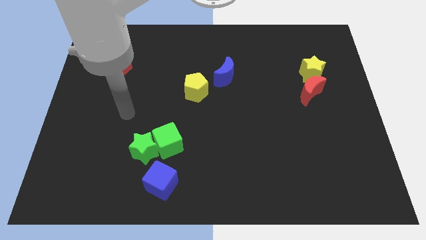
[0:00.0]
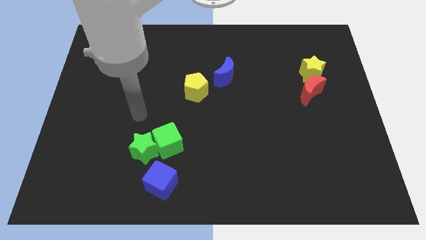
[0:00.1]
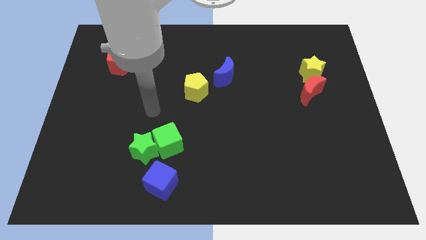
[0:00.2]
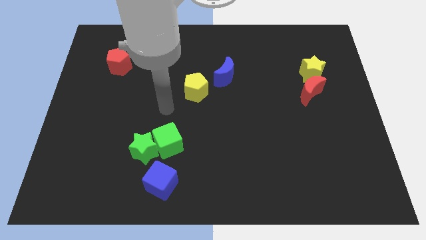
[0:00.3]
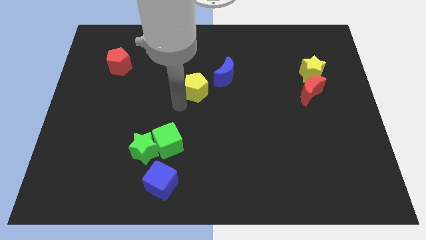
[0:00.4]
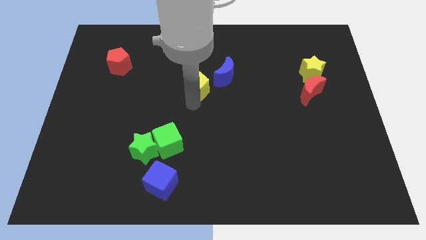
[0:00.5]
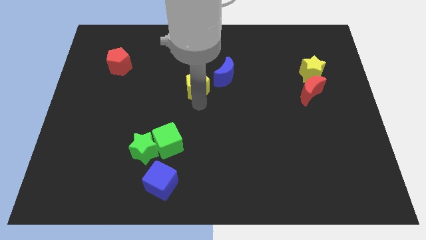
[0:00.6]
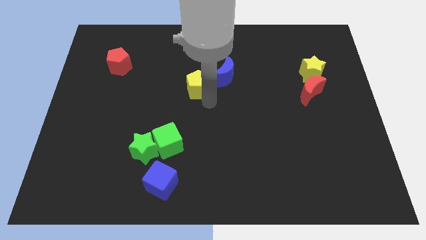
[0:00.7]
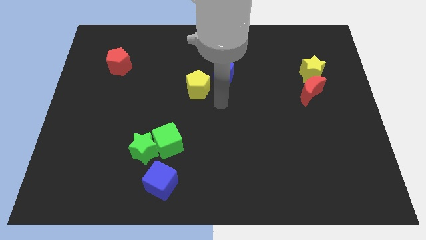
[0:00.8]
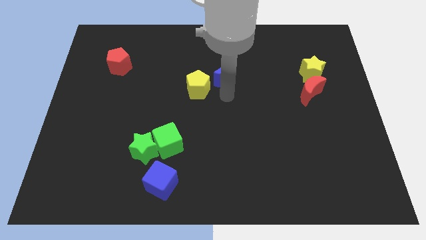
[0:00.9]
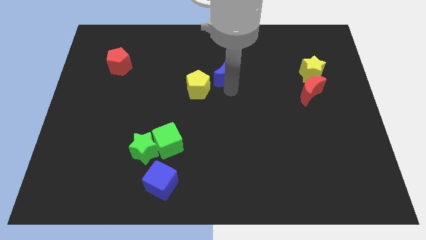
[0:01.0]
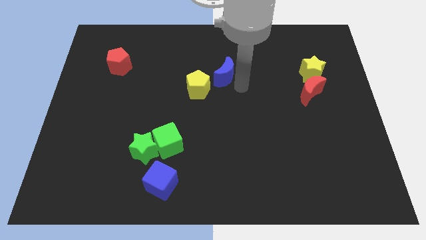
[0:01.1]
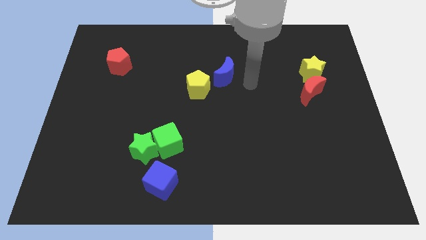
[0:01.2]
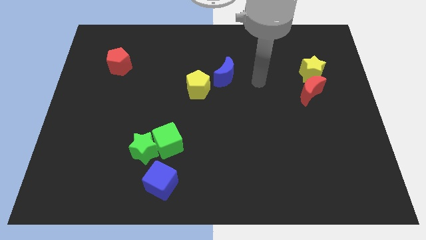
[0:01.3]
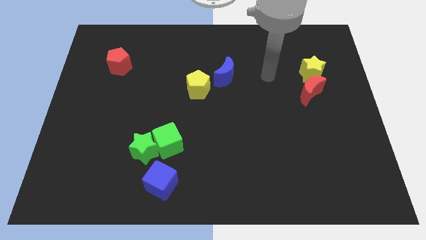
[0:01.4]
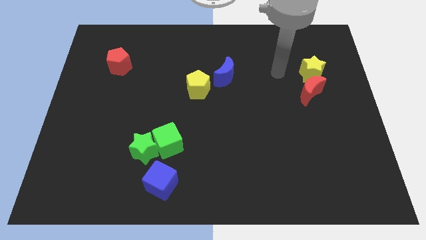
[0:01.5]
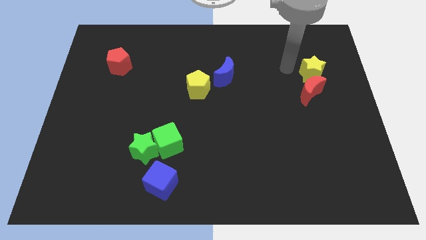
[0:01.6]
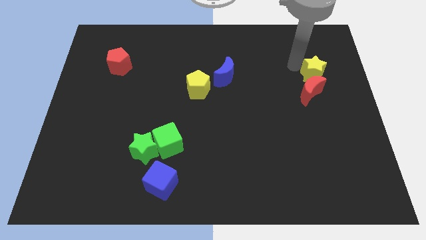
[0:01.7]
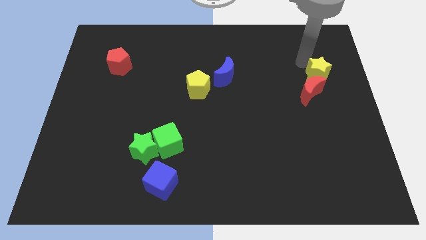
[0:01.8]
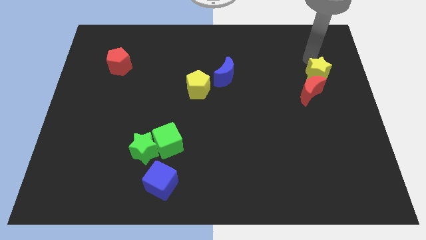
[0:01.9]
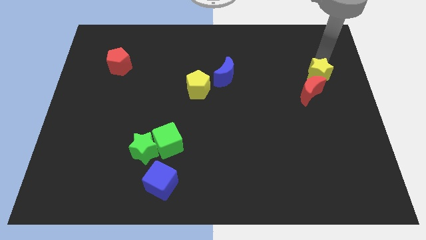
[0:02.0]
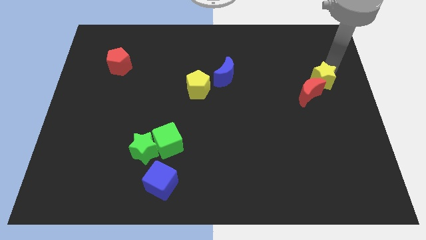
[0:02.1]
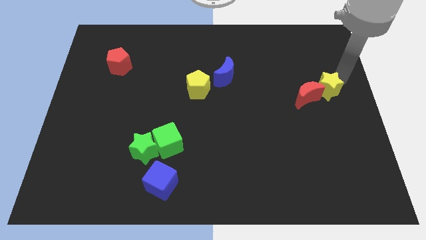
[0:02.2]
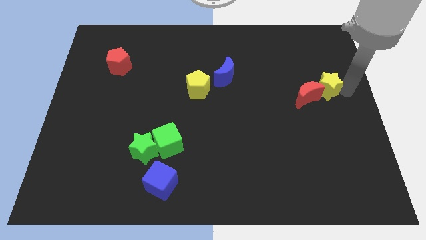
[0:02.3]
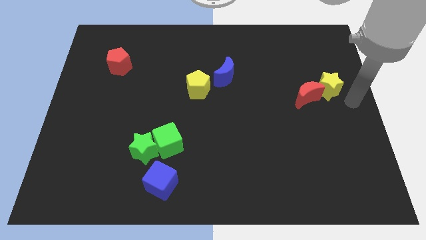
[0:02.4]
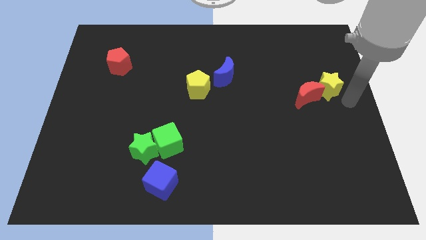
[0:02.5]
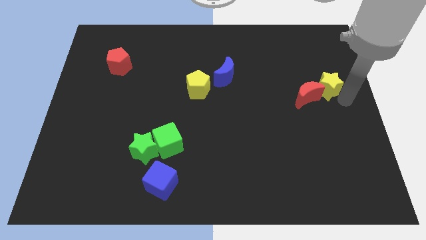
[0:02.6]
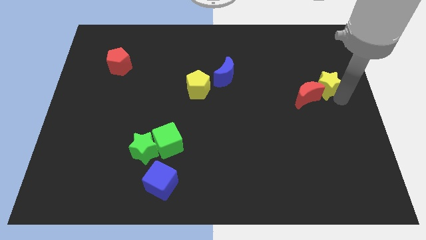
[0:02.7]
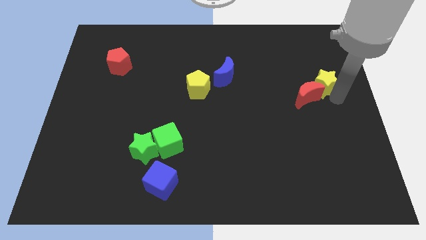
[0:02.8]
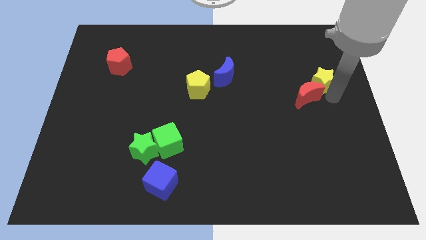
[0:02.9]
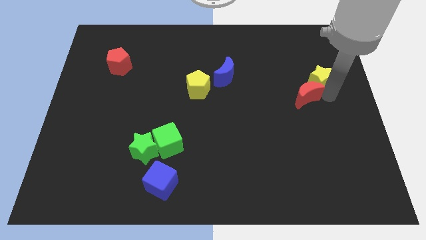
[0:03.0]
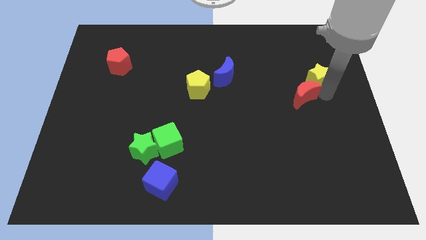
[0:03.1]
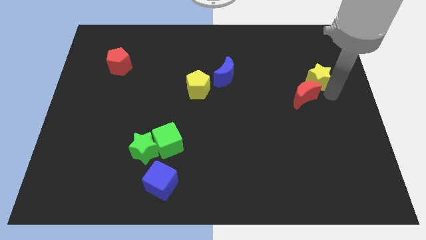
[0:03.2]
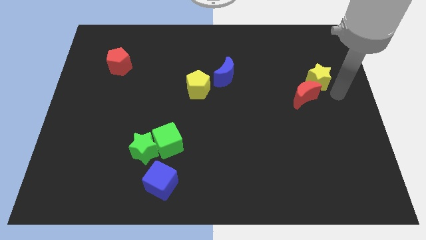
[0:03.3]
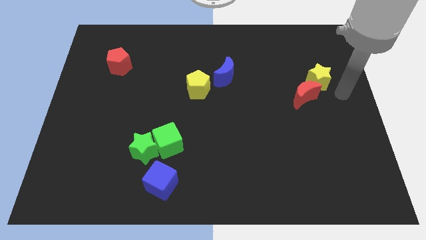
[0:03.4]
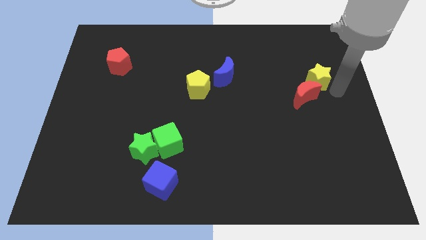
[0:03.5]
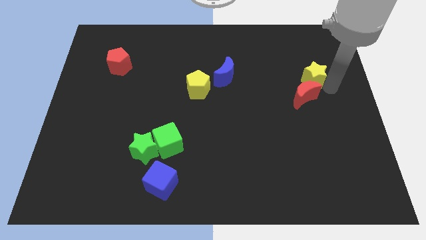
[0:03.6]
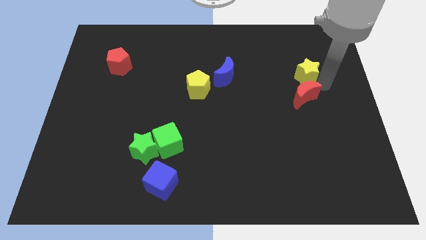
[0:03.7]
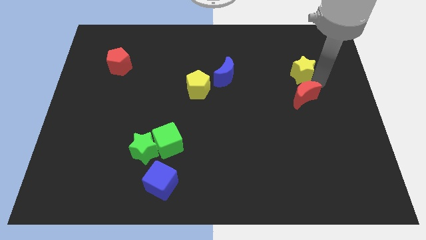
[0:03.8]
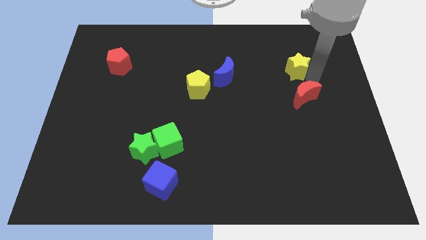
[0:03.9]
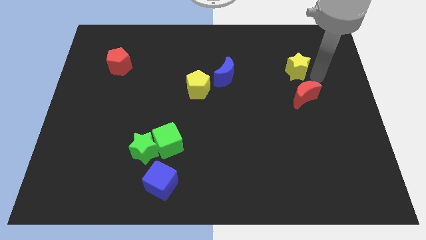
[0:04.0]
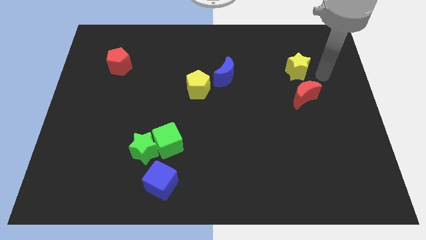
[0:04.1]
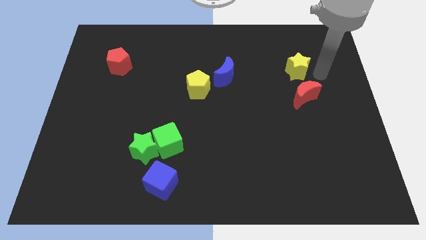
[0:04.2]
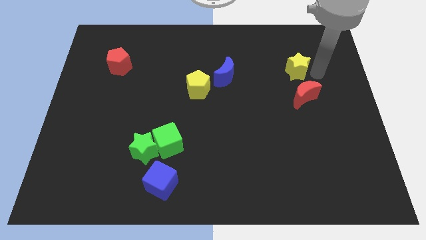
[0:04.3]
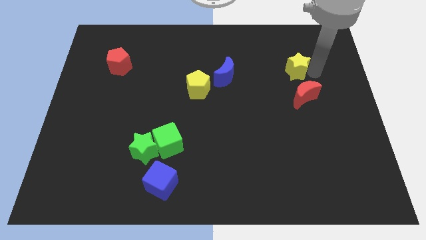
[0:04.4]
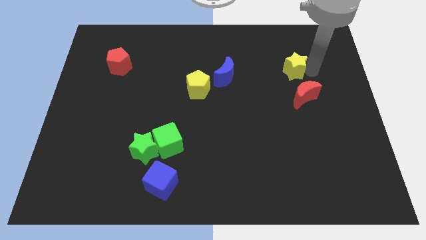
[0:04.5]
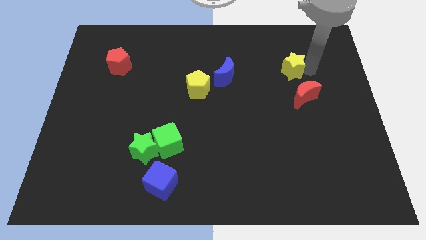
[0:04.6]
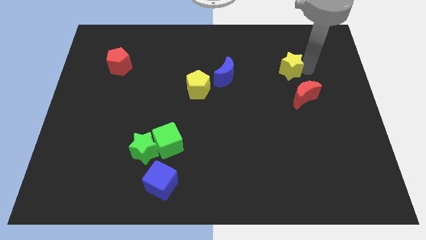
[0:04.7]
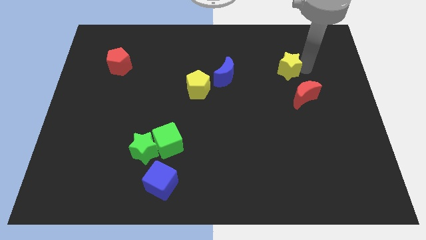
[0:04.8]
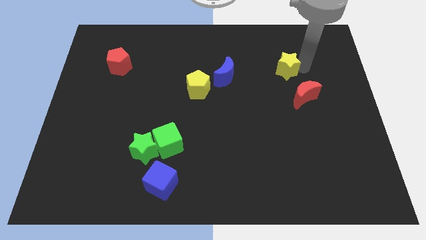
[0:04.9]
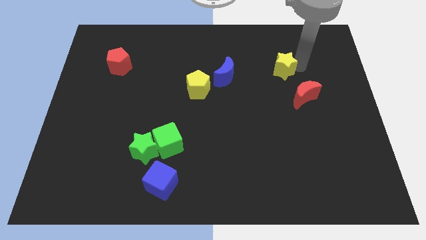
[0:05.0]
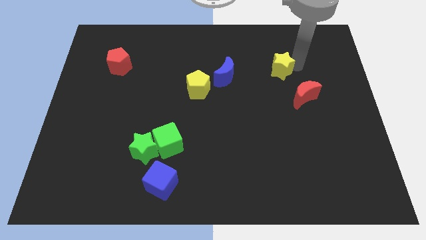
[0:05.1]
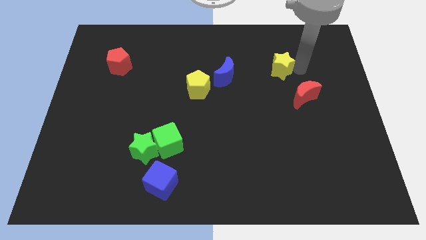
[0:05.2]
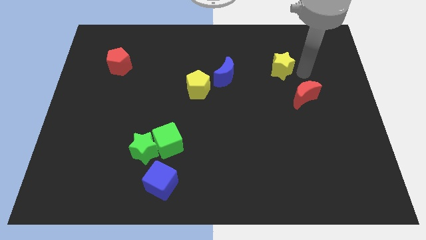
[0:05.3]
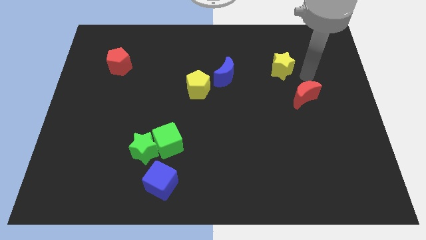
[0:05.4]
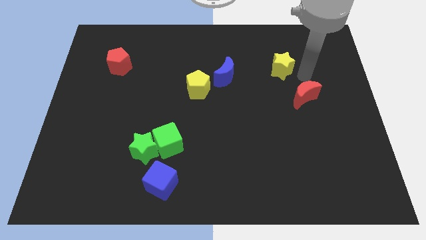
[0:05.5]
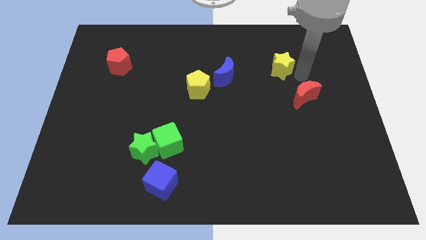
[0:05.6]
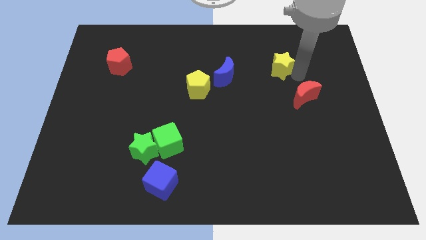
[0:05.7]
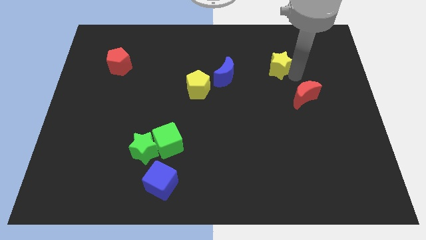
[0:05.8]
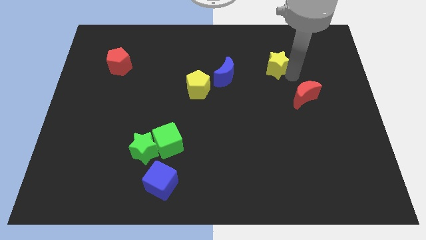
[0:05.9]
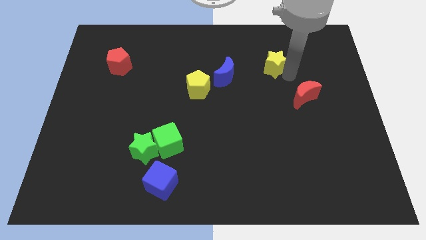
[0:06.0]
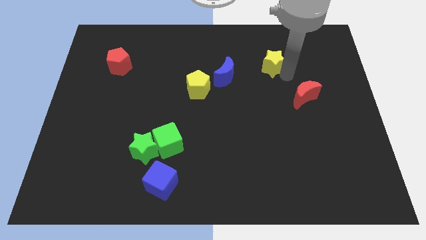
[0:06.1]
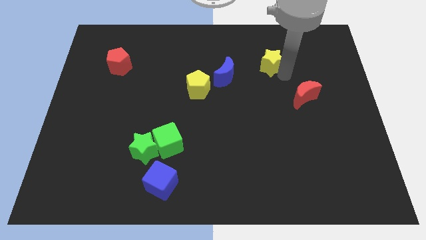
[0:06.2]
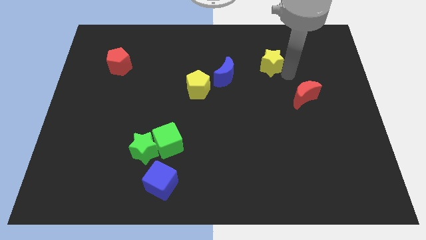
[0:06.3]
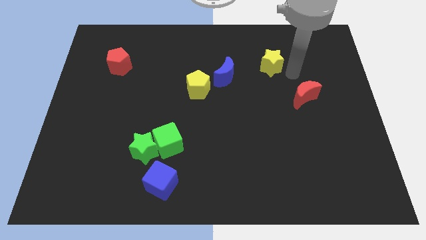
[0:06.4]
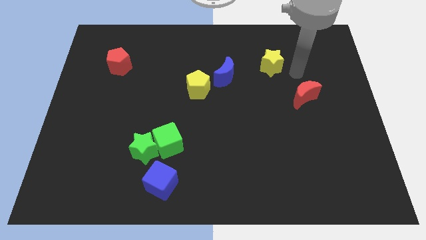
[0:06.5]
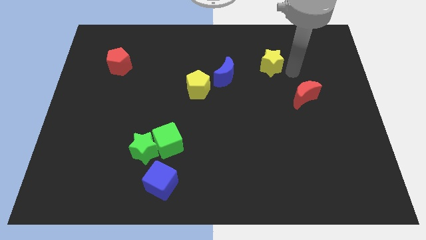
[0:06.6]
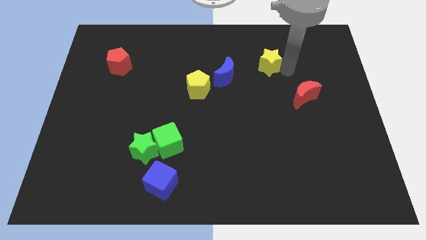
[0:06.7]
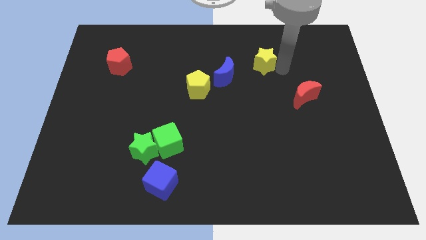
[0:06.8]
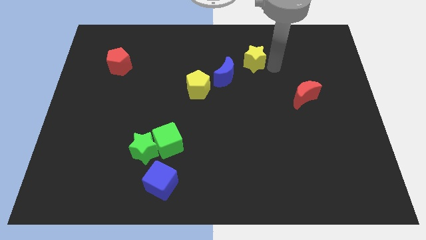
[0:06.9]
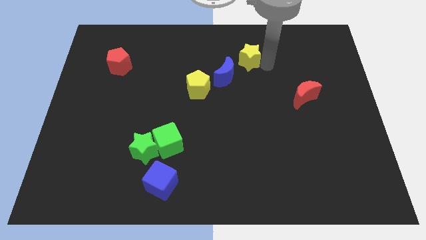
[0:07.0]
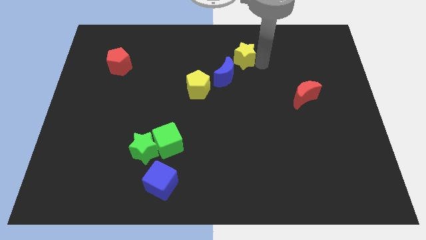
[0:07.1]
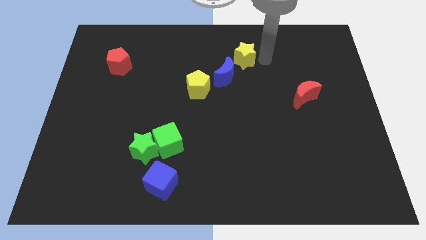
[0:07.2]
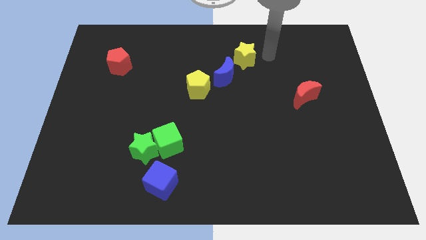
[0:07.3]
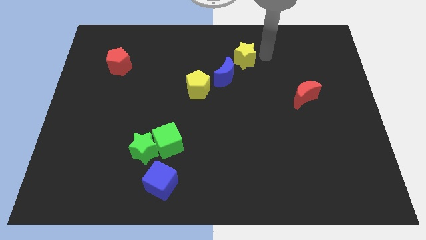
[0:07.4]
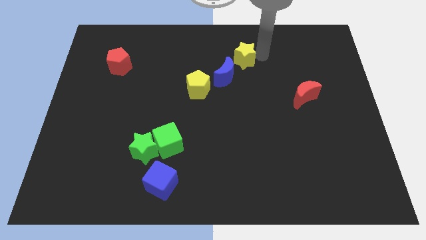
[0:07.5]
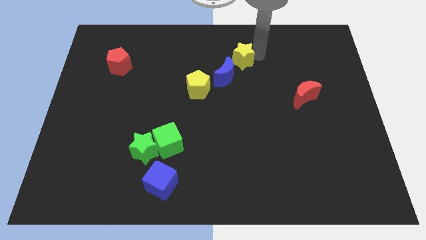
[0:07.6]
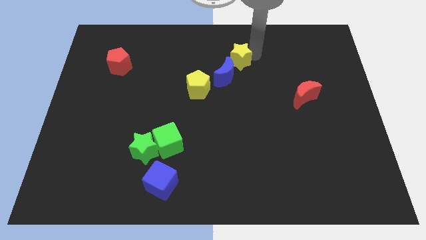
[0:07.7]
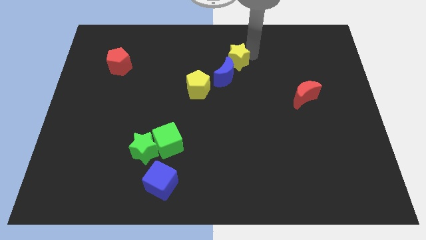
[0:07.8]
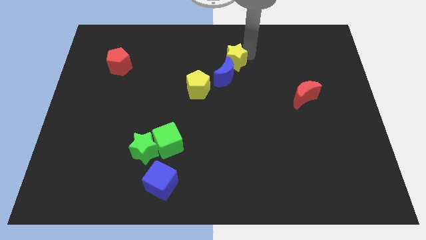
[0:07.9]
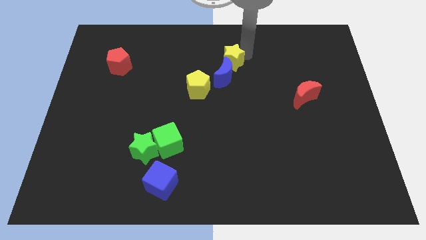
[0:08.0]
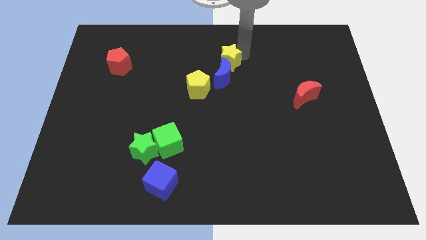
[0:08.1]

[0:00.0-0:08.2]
slide the yellow star to the left
